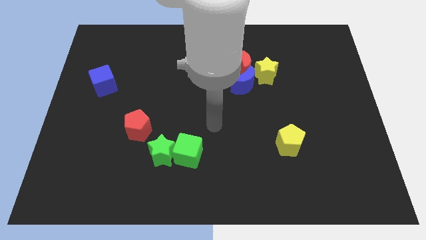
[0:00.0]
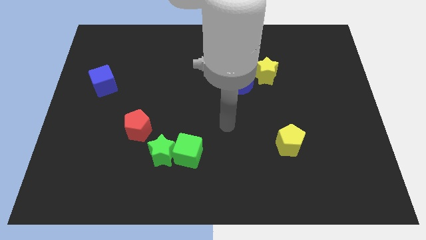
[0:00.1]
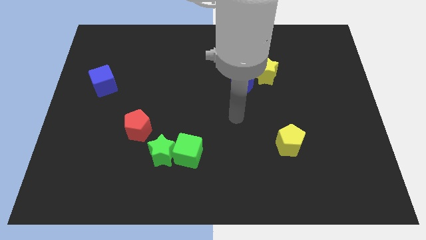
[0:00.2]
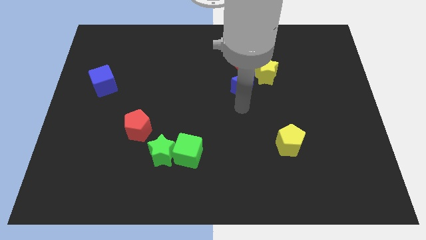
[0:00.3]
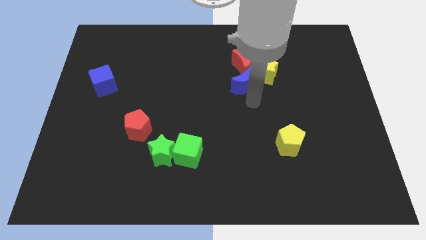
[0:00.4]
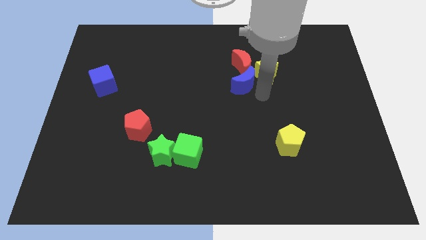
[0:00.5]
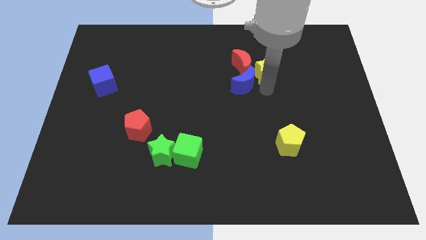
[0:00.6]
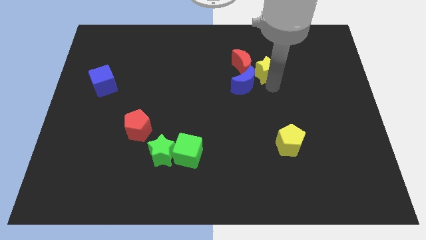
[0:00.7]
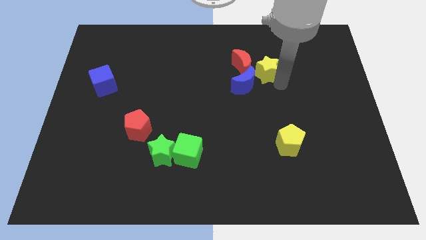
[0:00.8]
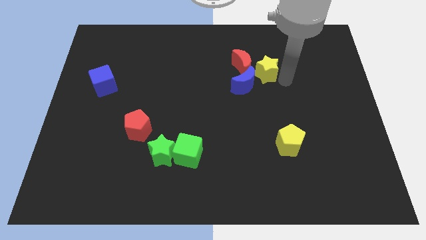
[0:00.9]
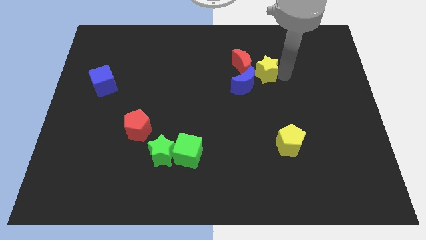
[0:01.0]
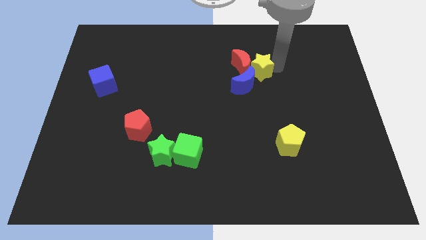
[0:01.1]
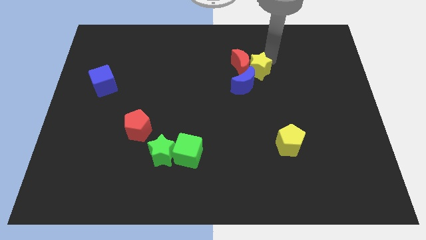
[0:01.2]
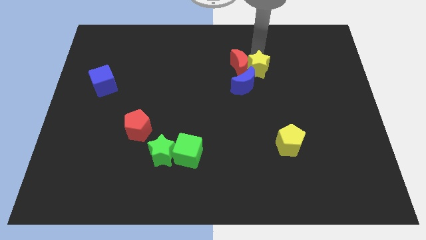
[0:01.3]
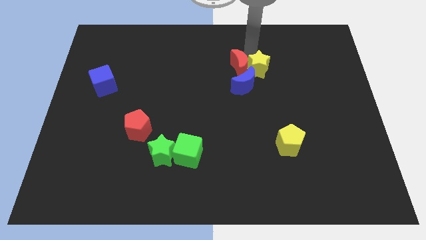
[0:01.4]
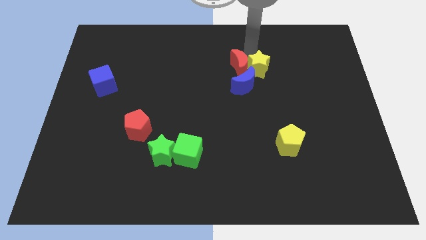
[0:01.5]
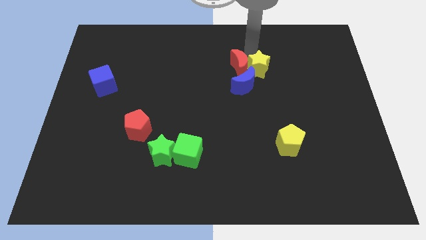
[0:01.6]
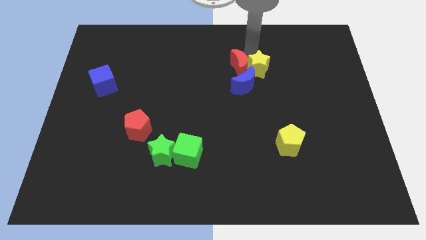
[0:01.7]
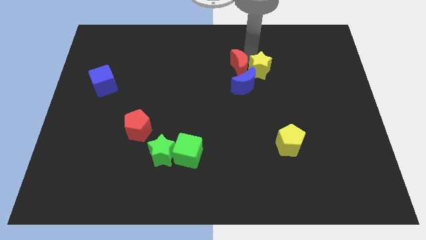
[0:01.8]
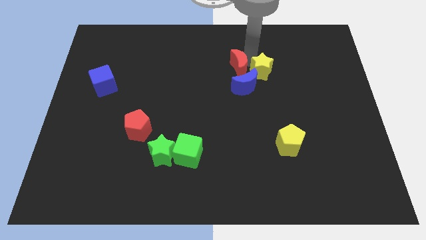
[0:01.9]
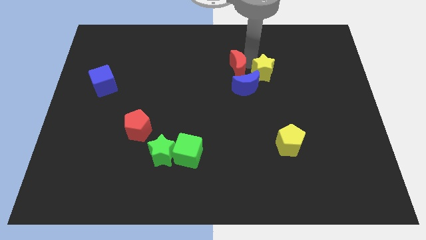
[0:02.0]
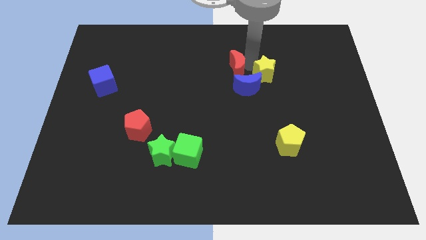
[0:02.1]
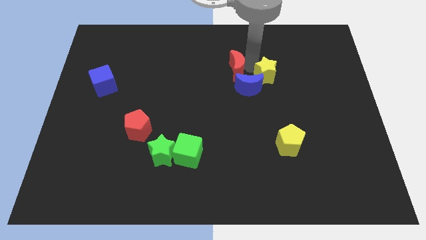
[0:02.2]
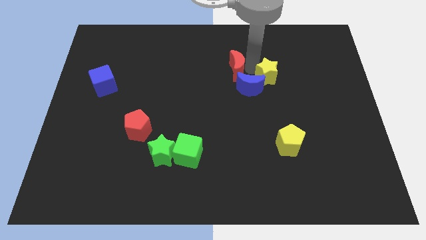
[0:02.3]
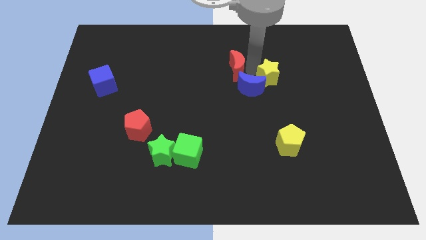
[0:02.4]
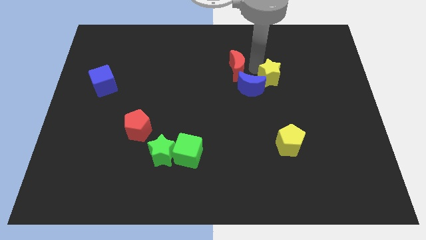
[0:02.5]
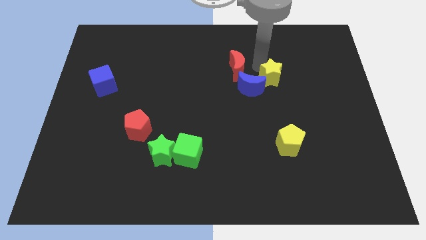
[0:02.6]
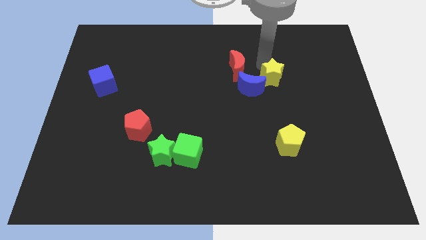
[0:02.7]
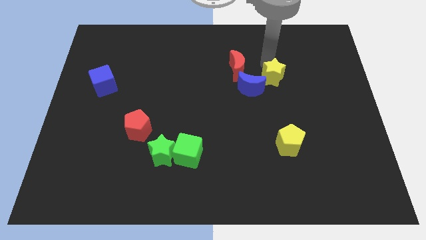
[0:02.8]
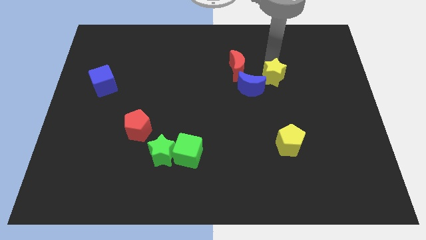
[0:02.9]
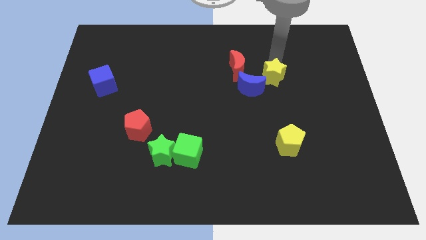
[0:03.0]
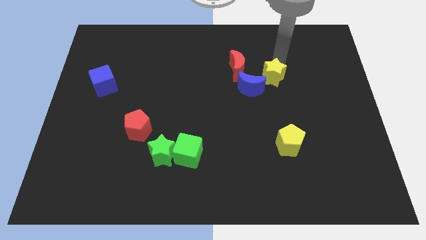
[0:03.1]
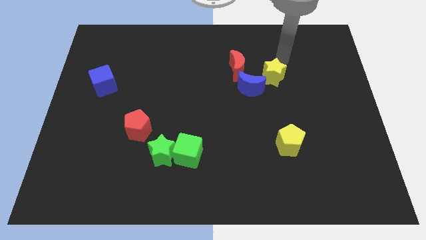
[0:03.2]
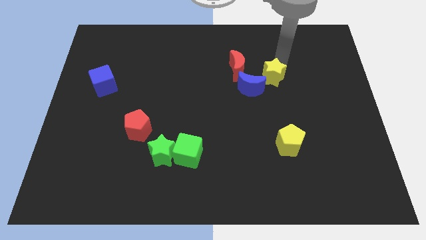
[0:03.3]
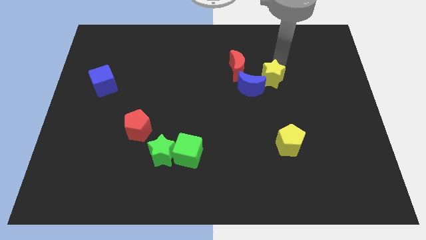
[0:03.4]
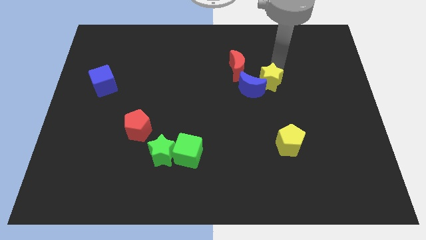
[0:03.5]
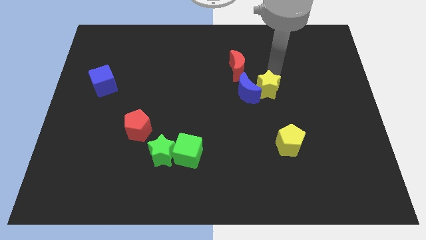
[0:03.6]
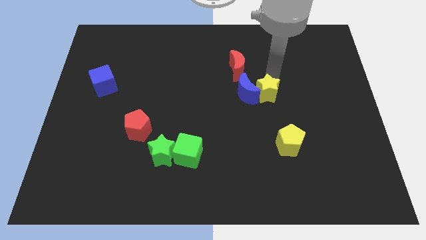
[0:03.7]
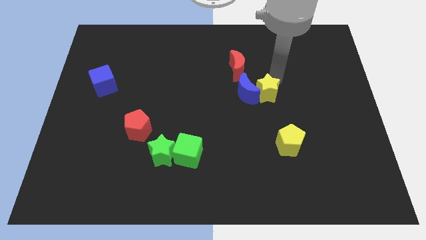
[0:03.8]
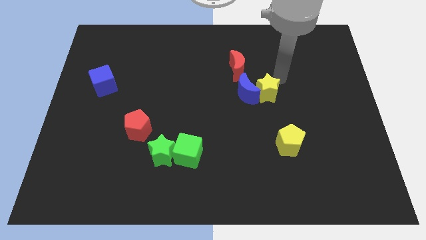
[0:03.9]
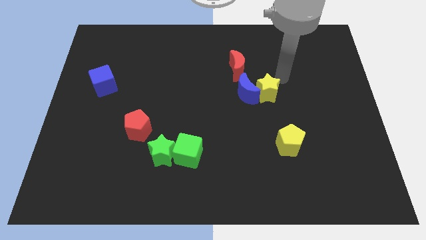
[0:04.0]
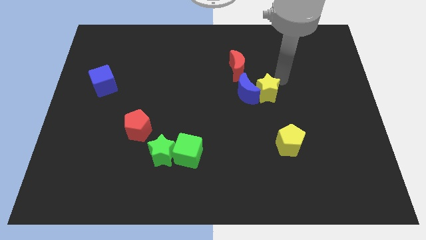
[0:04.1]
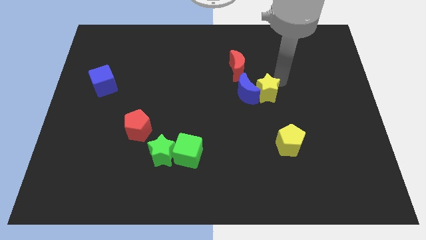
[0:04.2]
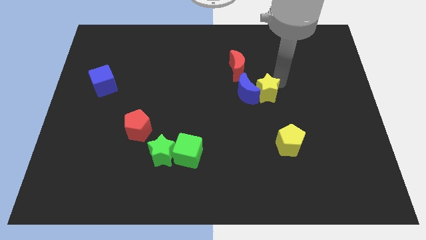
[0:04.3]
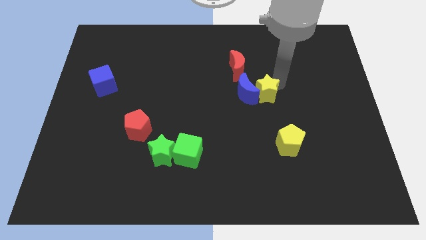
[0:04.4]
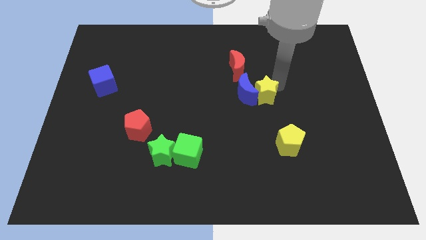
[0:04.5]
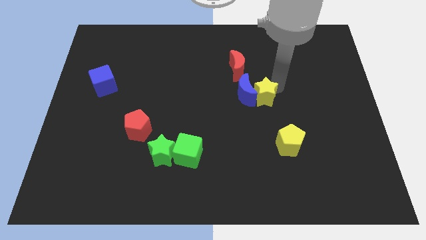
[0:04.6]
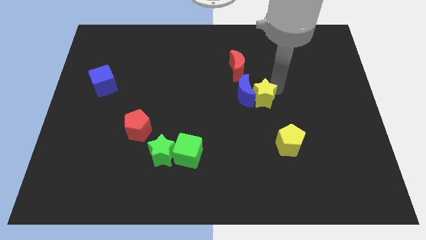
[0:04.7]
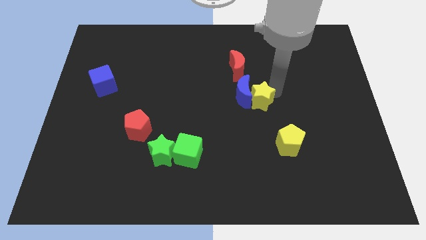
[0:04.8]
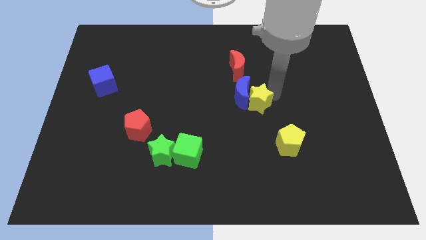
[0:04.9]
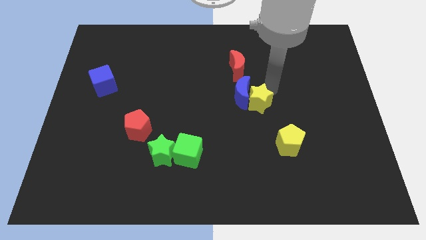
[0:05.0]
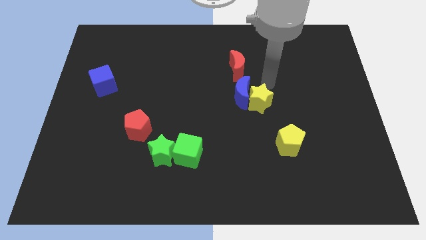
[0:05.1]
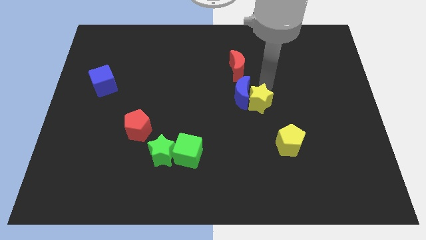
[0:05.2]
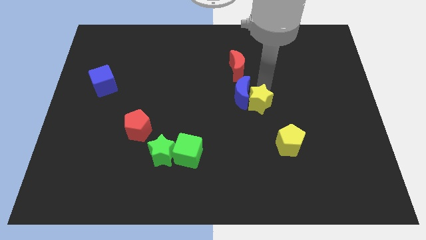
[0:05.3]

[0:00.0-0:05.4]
move the yellow star to the bottom of the blue moon
